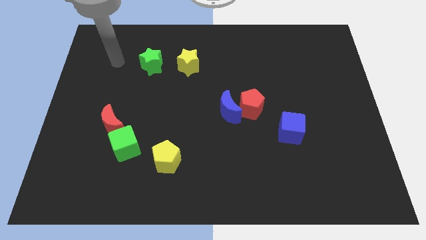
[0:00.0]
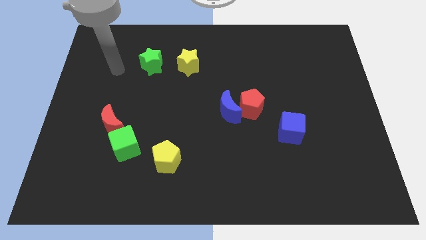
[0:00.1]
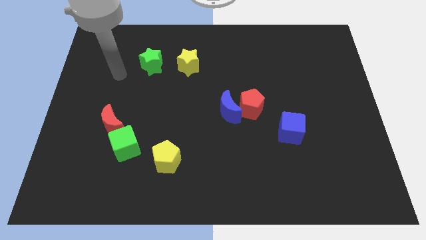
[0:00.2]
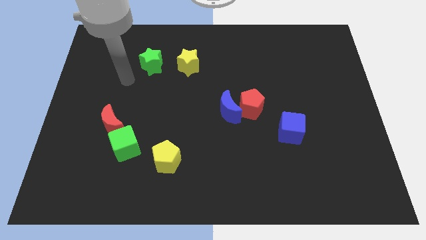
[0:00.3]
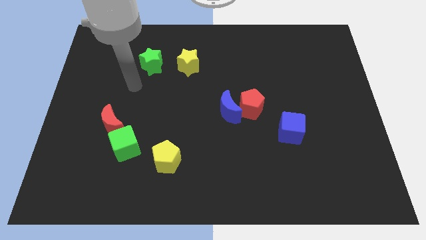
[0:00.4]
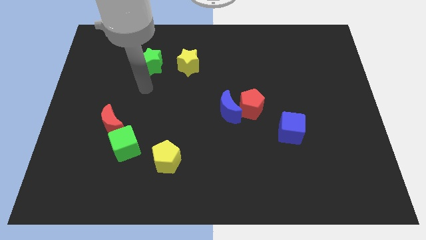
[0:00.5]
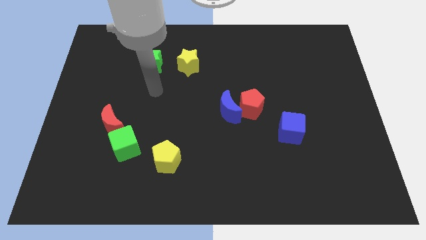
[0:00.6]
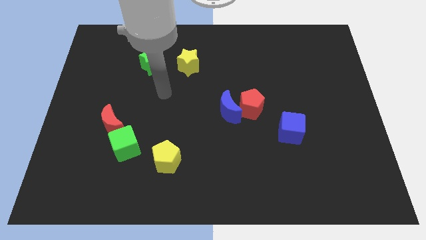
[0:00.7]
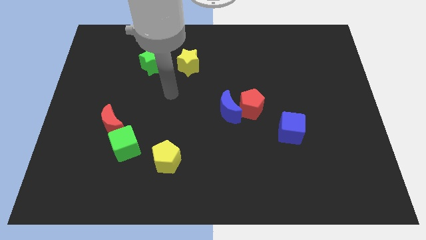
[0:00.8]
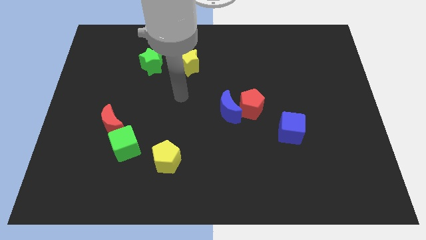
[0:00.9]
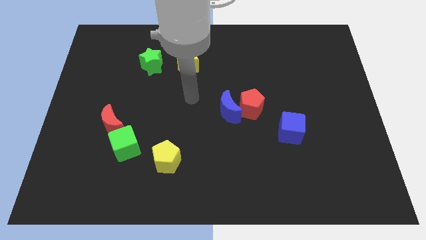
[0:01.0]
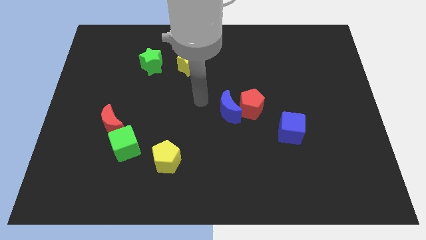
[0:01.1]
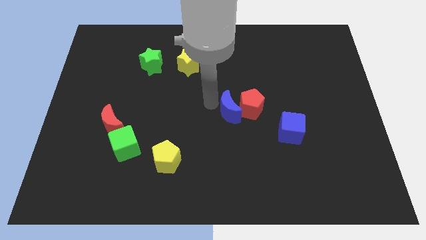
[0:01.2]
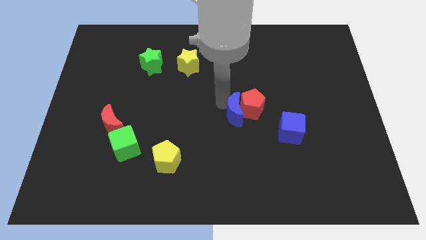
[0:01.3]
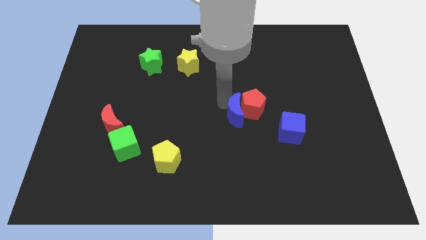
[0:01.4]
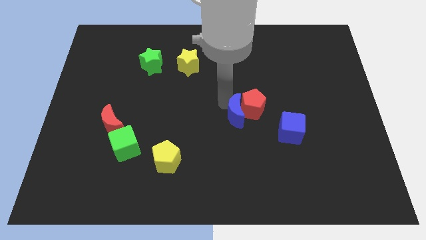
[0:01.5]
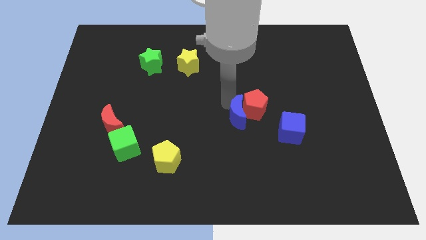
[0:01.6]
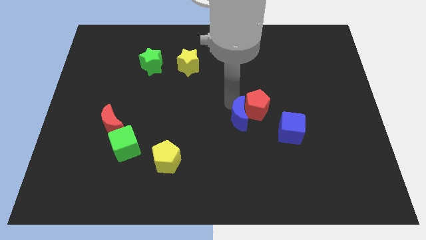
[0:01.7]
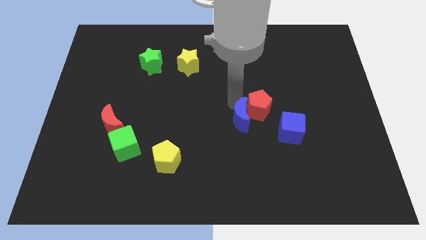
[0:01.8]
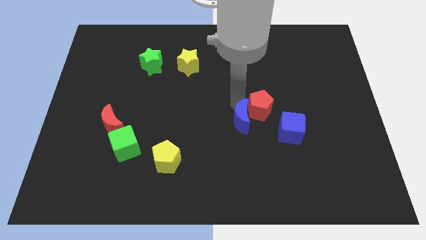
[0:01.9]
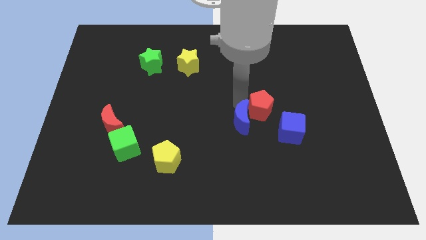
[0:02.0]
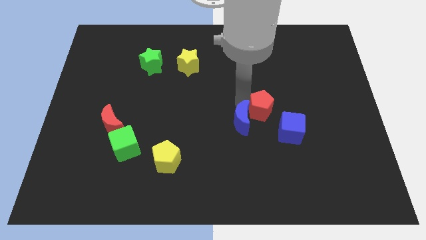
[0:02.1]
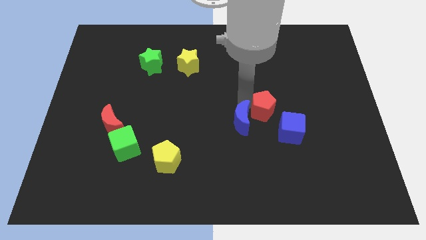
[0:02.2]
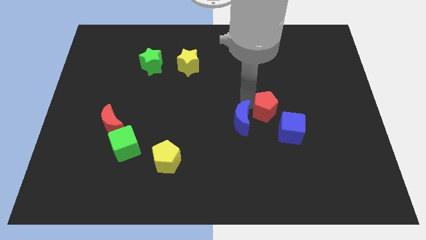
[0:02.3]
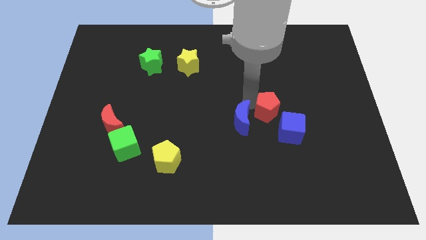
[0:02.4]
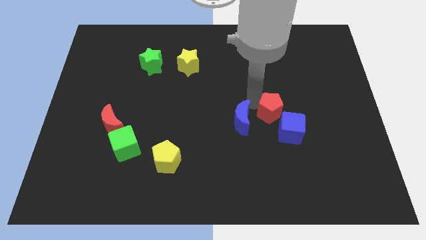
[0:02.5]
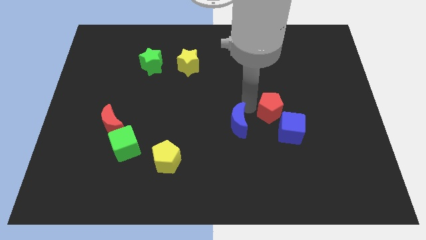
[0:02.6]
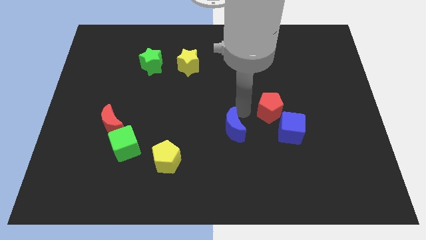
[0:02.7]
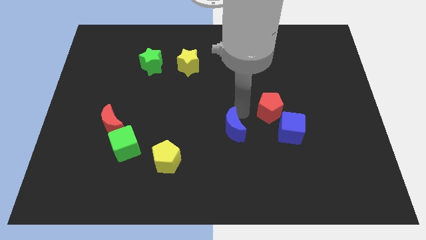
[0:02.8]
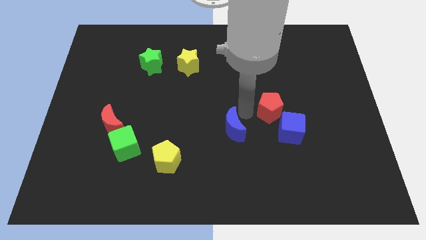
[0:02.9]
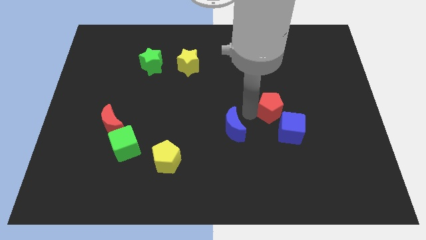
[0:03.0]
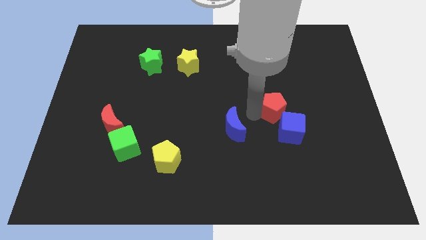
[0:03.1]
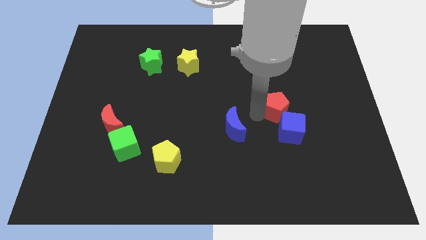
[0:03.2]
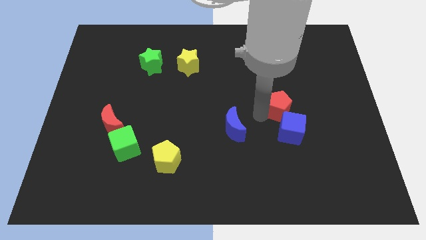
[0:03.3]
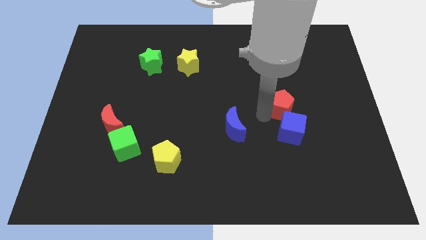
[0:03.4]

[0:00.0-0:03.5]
slide the red pentagon to the right slightly

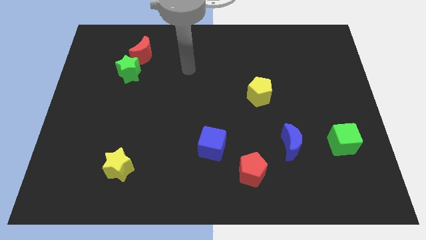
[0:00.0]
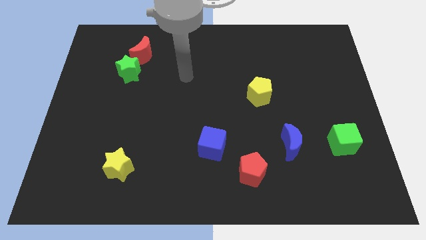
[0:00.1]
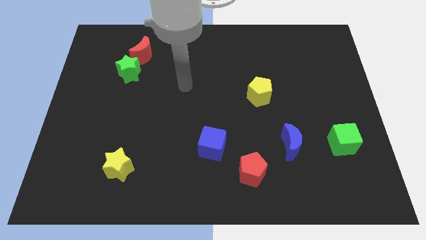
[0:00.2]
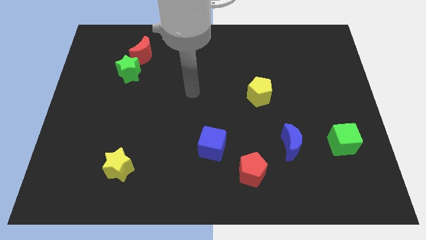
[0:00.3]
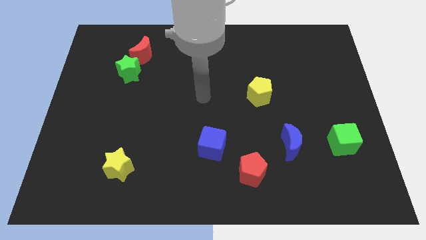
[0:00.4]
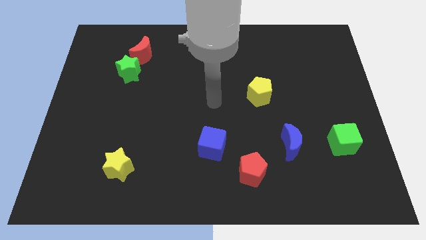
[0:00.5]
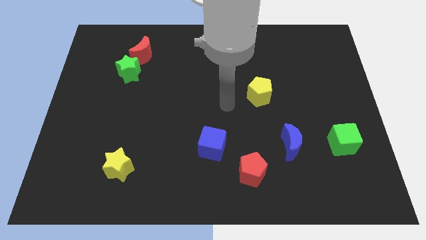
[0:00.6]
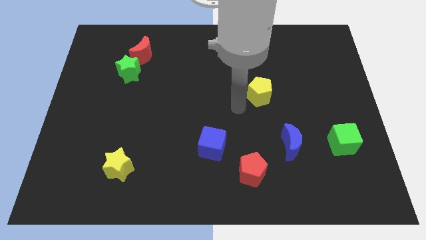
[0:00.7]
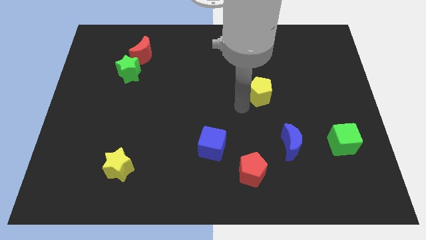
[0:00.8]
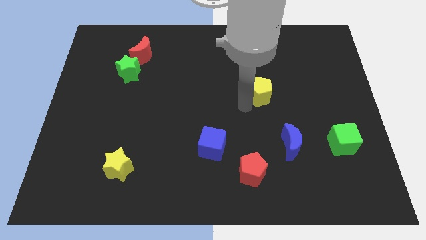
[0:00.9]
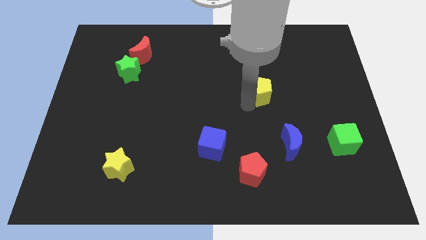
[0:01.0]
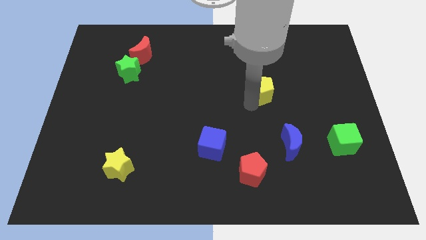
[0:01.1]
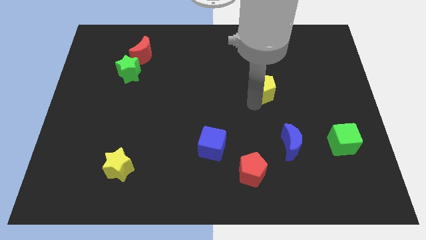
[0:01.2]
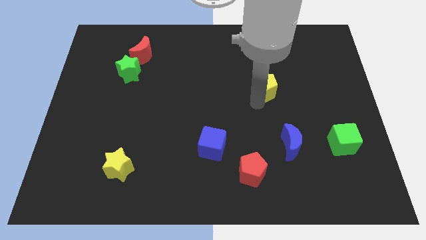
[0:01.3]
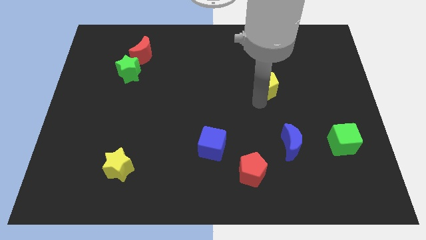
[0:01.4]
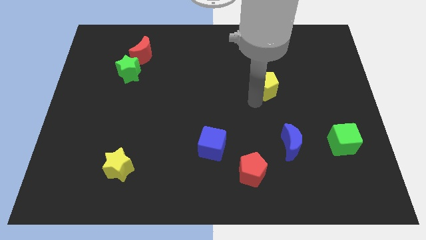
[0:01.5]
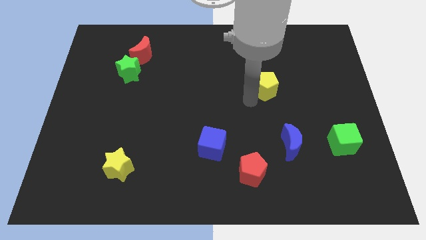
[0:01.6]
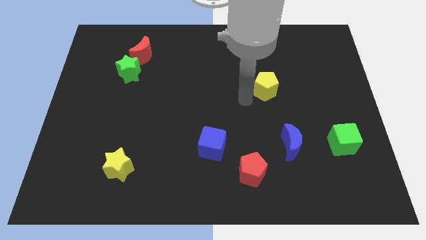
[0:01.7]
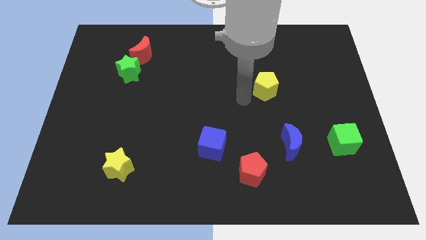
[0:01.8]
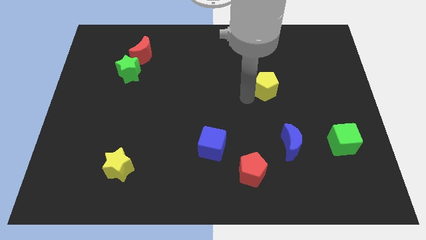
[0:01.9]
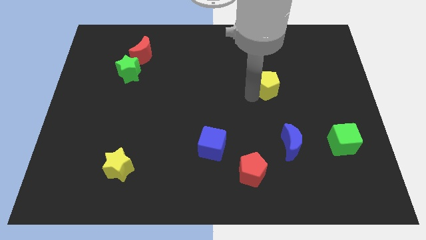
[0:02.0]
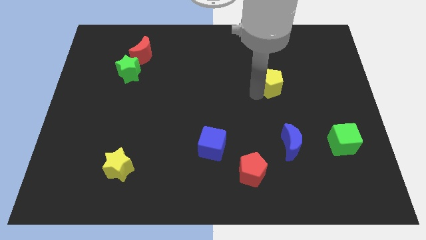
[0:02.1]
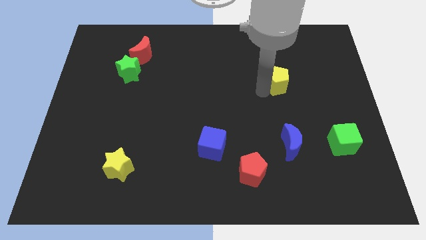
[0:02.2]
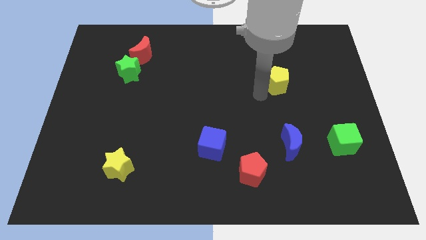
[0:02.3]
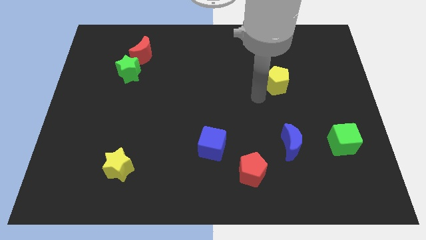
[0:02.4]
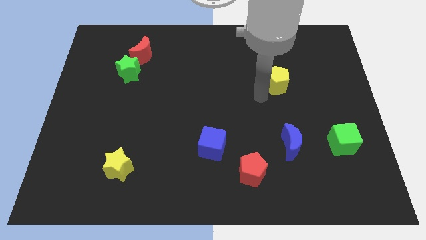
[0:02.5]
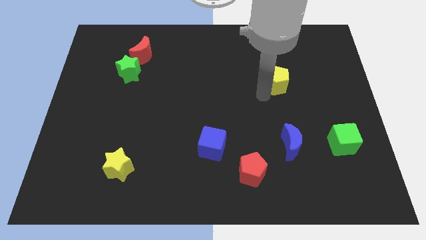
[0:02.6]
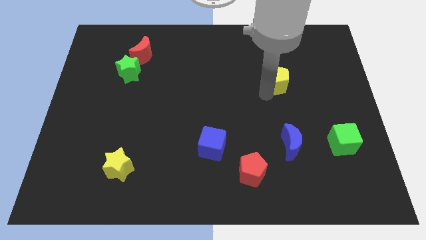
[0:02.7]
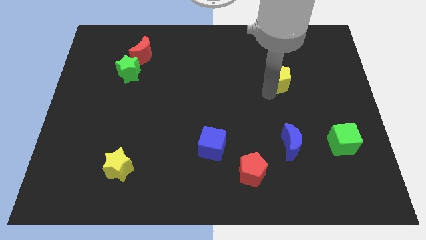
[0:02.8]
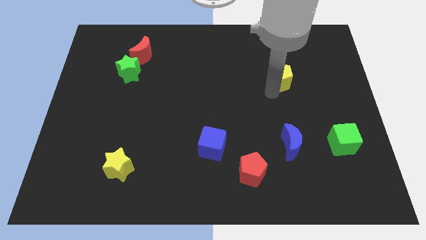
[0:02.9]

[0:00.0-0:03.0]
slide the yellow pentagon a little upwards and then to the right

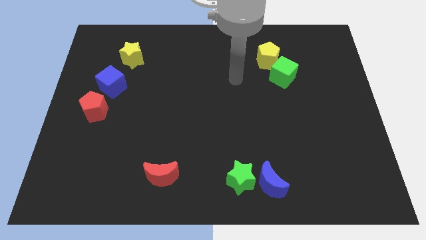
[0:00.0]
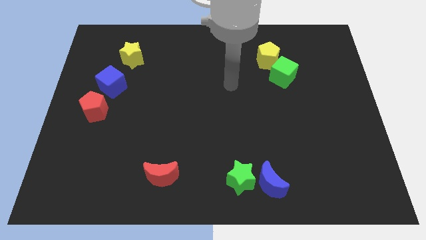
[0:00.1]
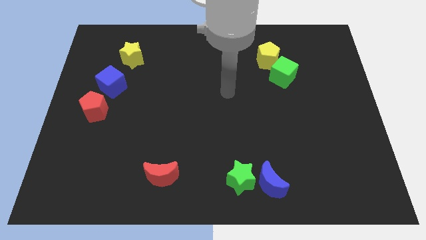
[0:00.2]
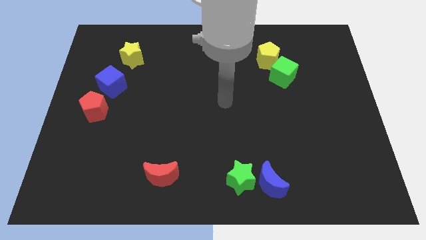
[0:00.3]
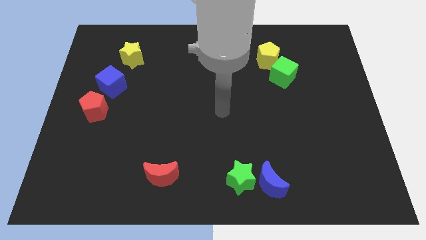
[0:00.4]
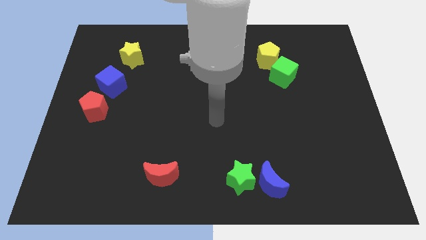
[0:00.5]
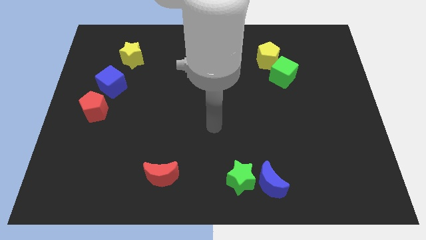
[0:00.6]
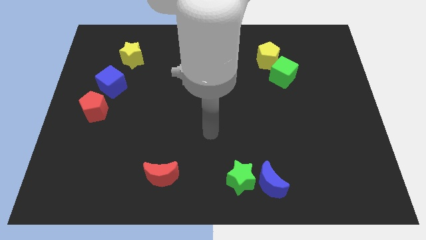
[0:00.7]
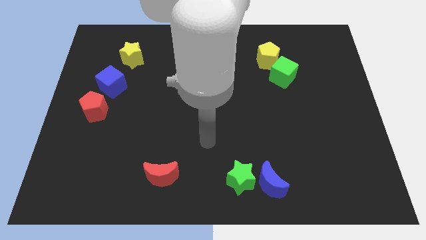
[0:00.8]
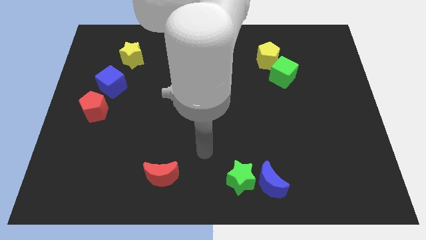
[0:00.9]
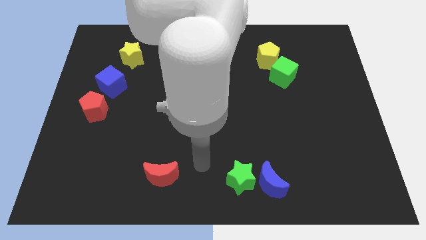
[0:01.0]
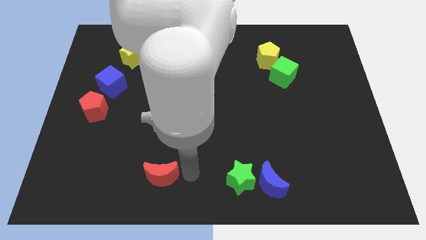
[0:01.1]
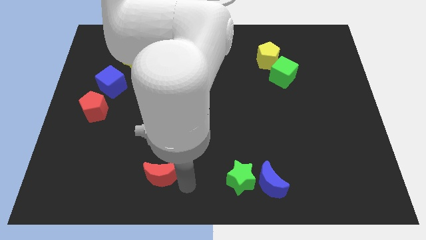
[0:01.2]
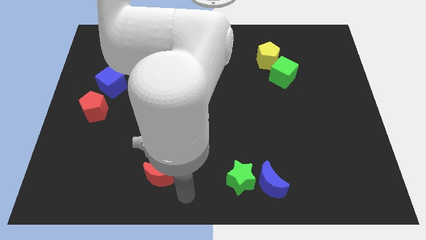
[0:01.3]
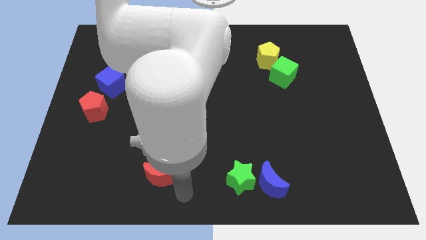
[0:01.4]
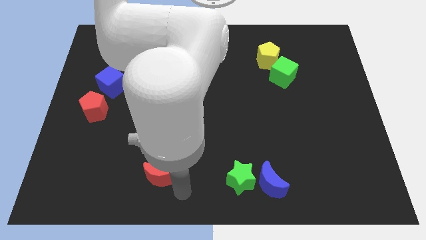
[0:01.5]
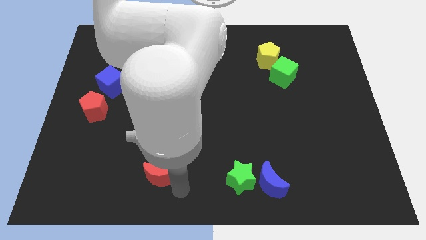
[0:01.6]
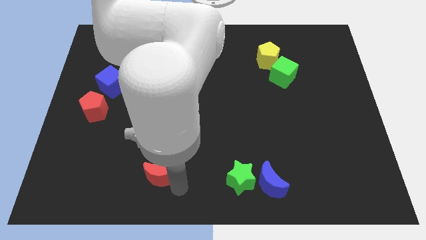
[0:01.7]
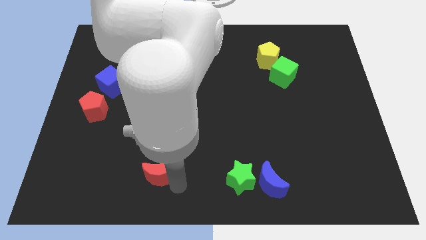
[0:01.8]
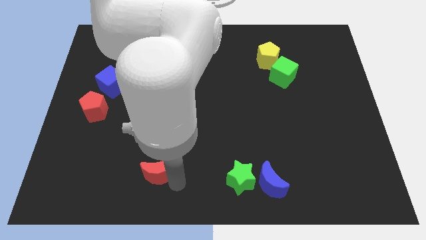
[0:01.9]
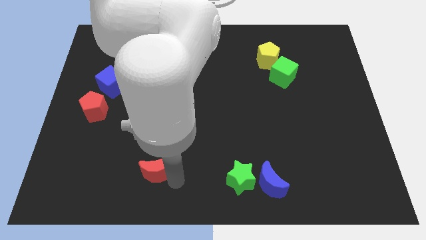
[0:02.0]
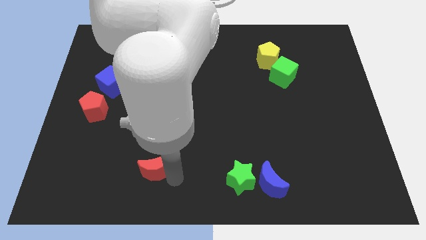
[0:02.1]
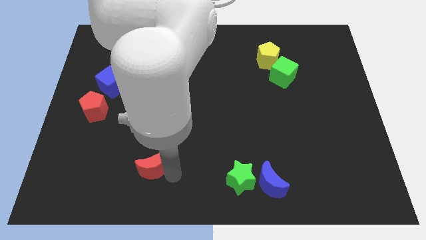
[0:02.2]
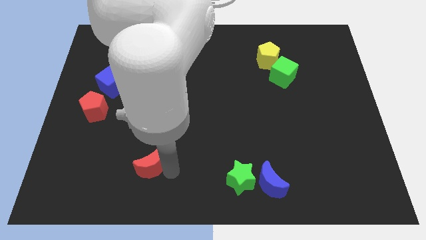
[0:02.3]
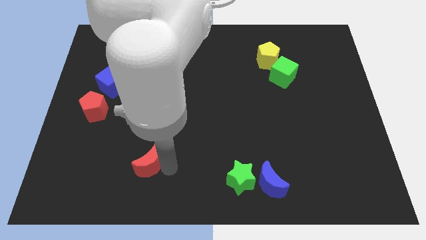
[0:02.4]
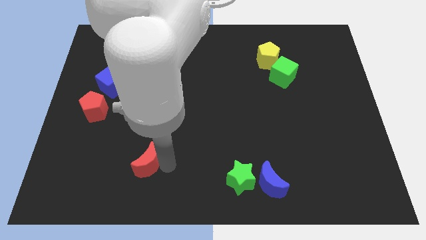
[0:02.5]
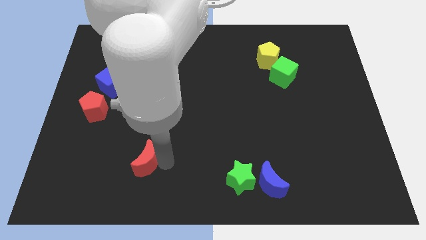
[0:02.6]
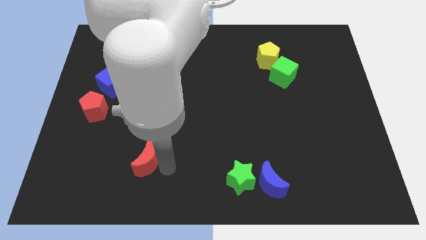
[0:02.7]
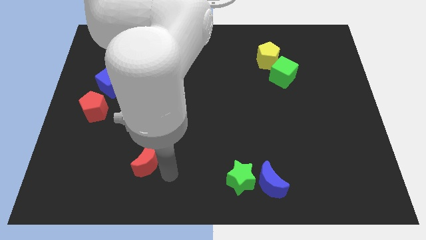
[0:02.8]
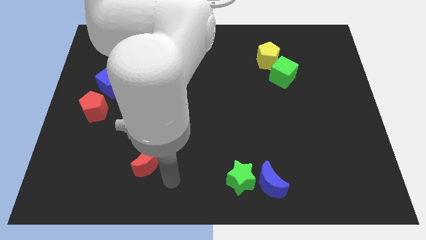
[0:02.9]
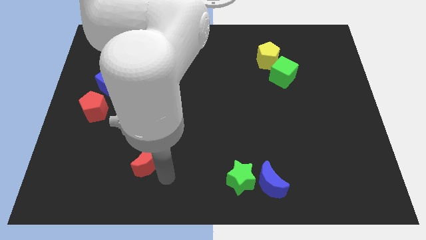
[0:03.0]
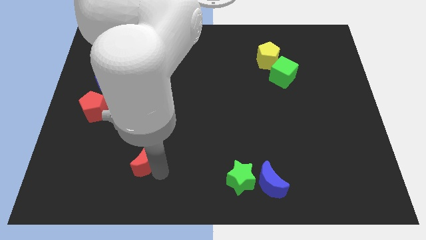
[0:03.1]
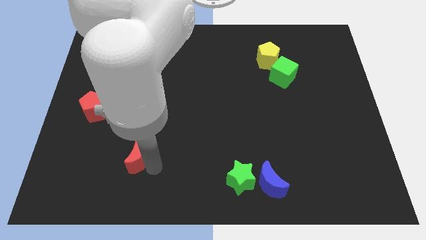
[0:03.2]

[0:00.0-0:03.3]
slightly slide the red moon up and then left
